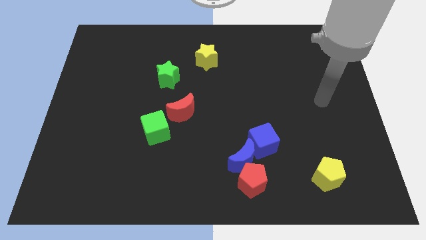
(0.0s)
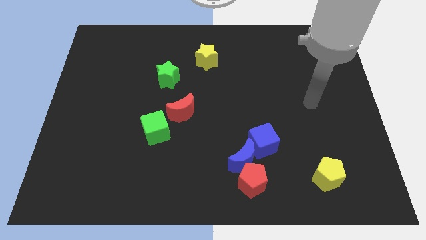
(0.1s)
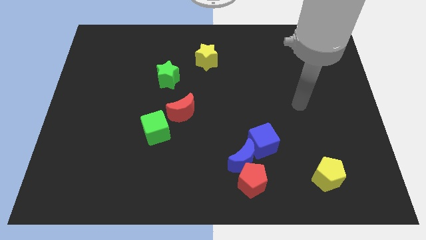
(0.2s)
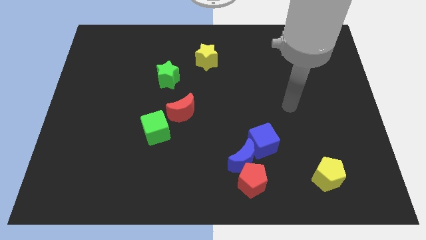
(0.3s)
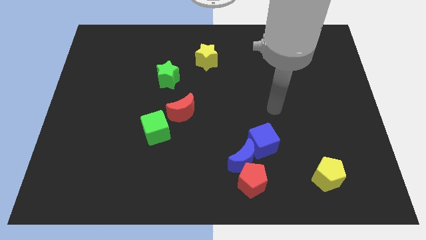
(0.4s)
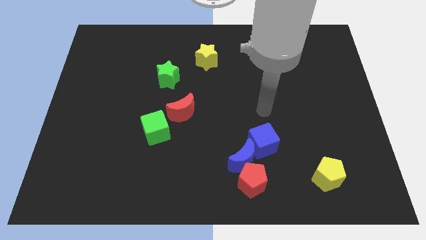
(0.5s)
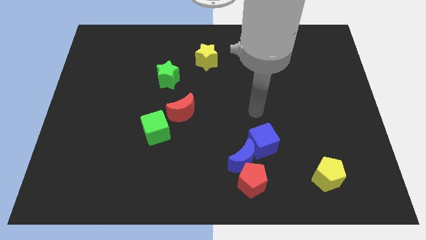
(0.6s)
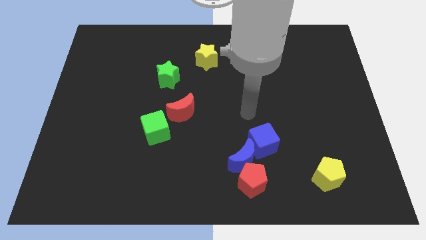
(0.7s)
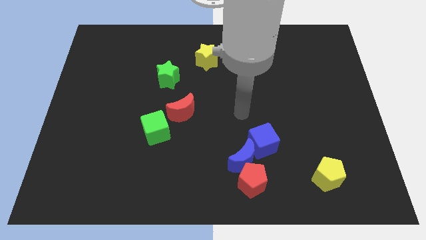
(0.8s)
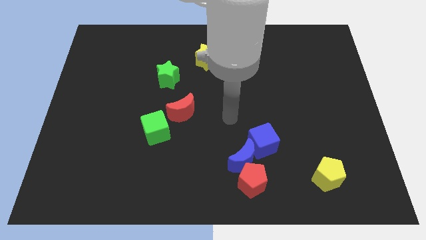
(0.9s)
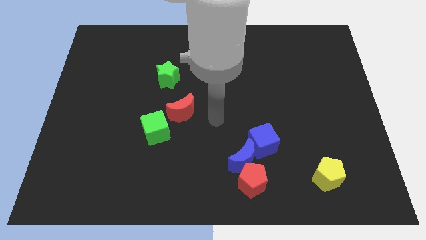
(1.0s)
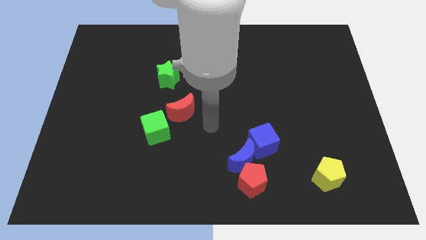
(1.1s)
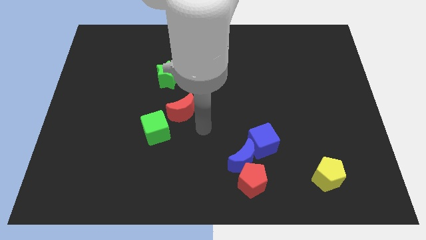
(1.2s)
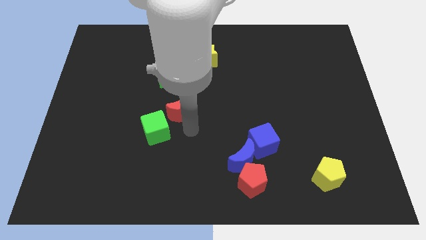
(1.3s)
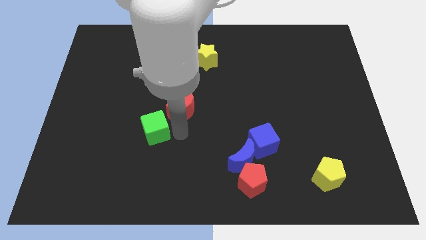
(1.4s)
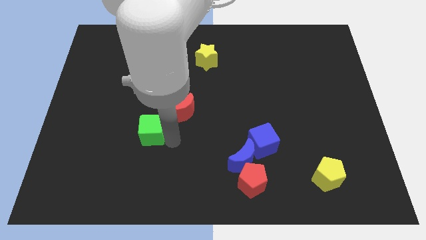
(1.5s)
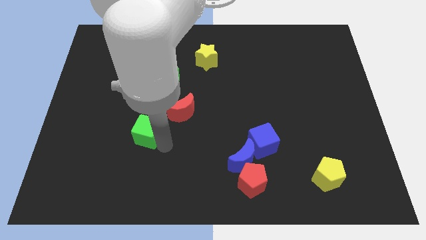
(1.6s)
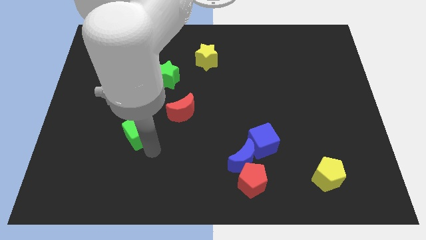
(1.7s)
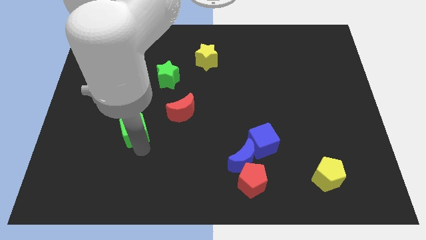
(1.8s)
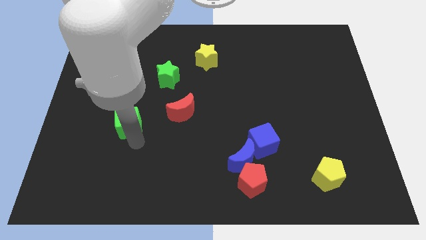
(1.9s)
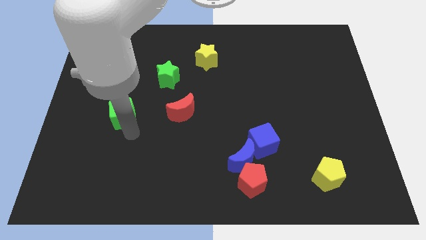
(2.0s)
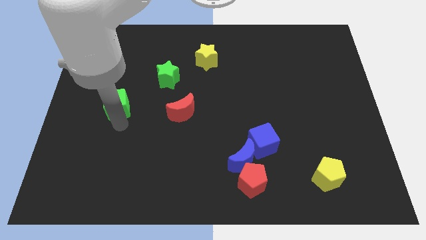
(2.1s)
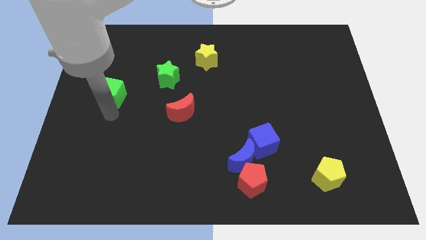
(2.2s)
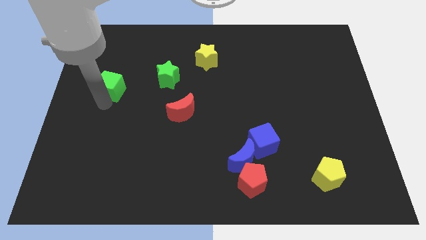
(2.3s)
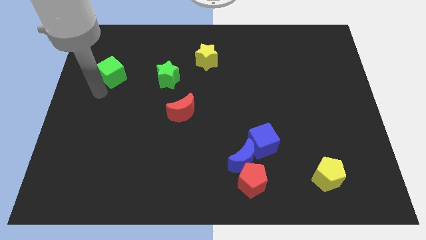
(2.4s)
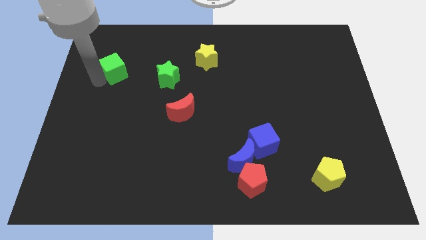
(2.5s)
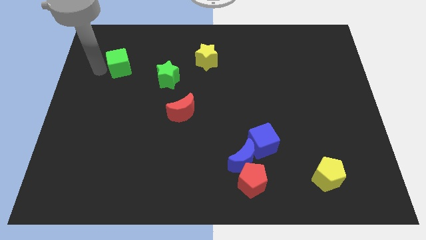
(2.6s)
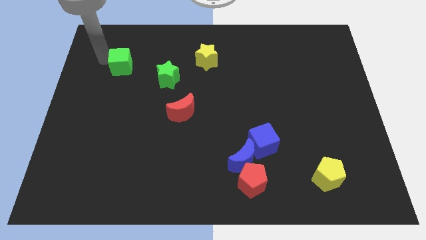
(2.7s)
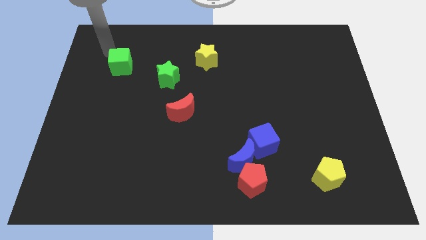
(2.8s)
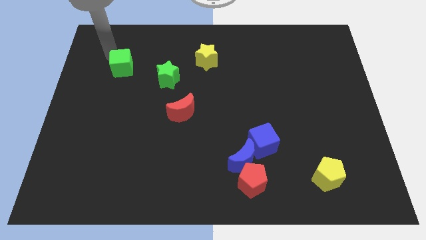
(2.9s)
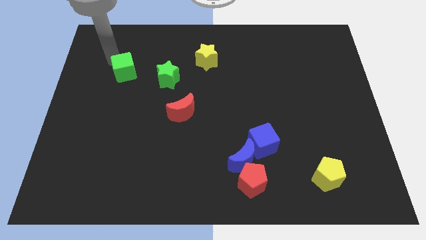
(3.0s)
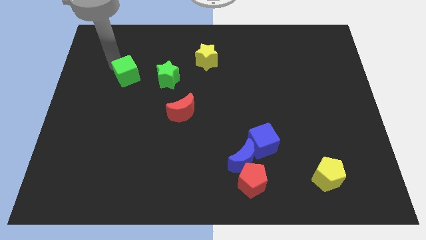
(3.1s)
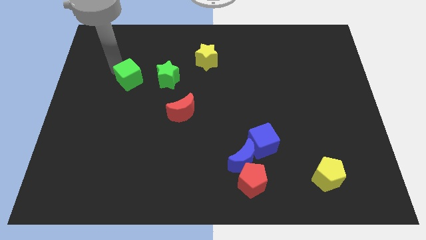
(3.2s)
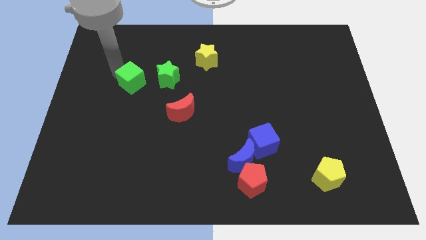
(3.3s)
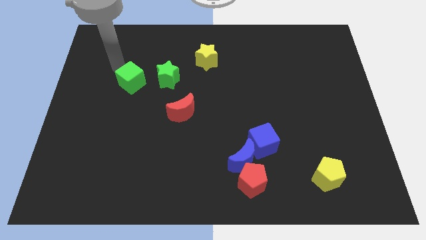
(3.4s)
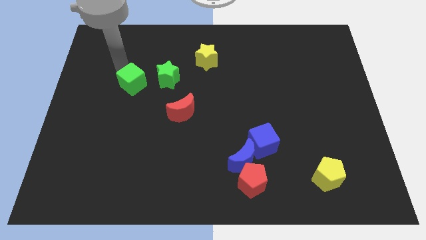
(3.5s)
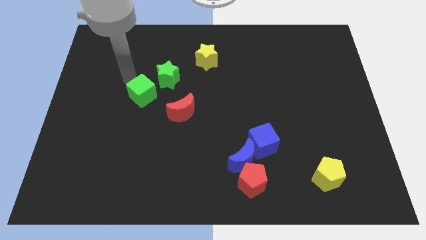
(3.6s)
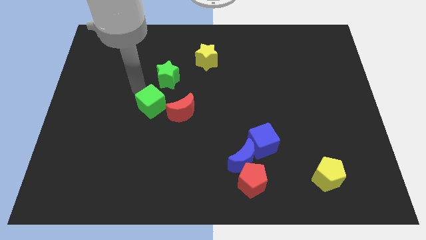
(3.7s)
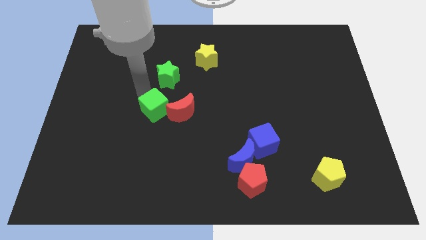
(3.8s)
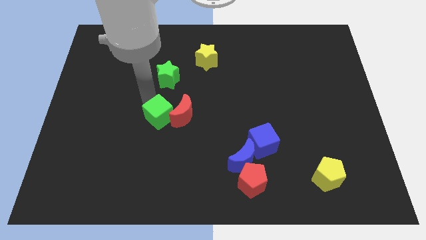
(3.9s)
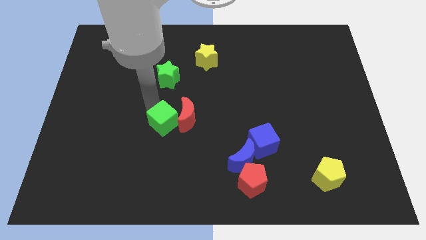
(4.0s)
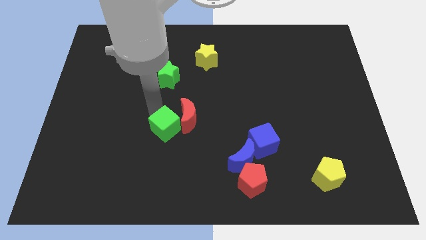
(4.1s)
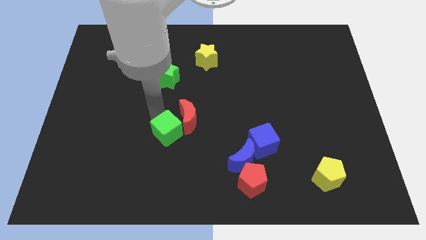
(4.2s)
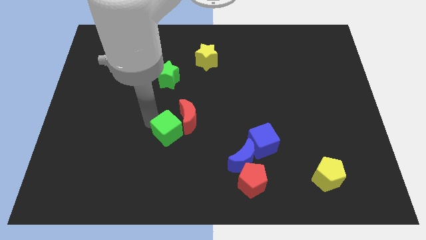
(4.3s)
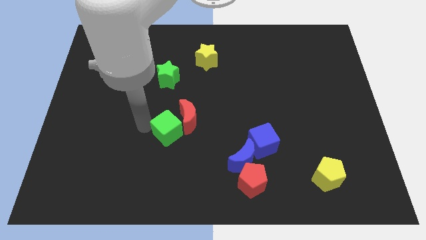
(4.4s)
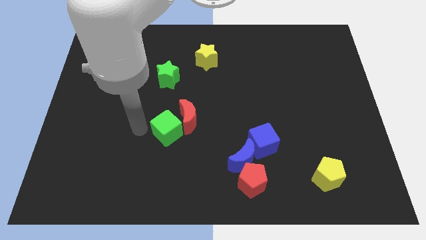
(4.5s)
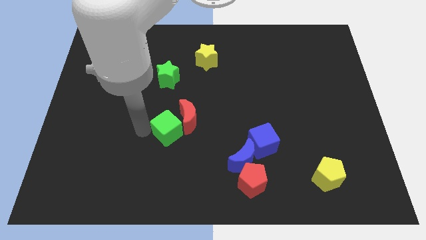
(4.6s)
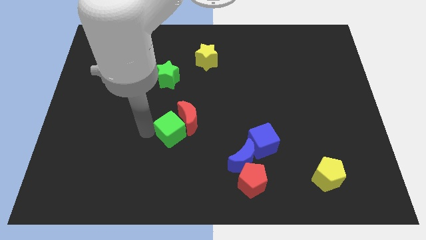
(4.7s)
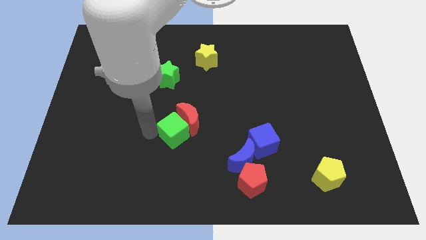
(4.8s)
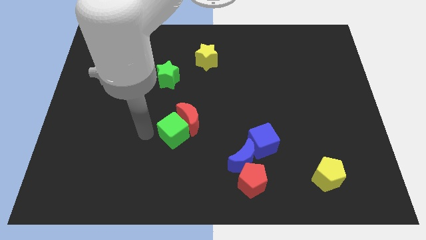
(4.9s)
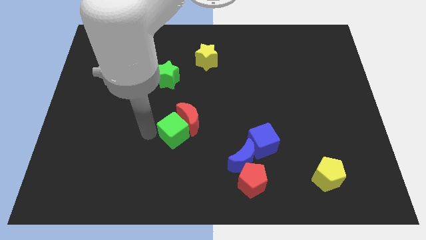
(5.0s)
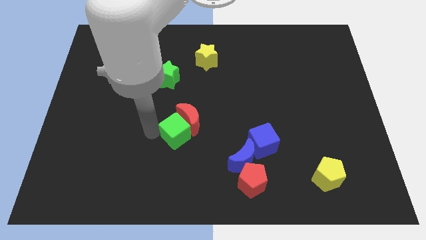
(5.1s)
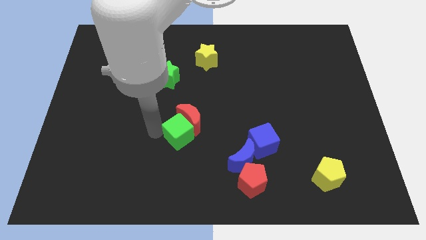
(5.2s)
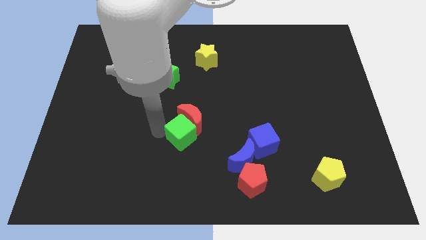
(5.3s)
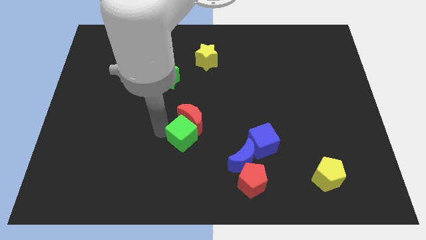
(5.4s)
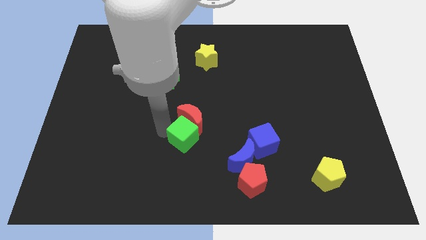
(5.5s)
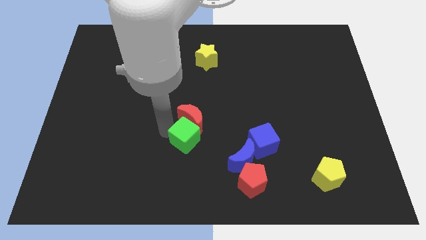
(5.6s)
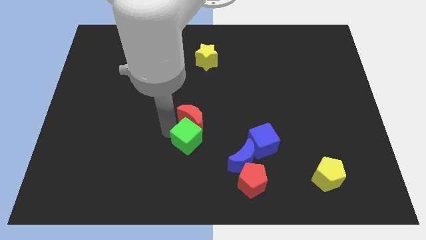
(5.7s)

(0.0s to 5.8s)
slightly slide the green cube right

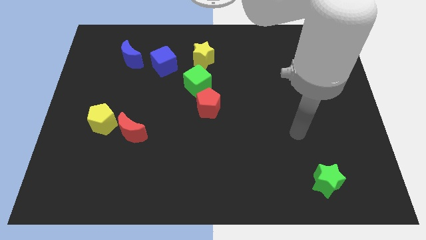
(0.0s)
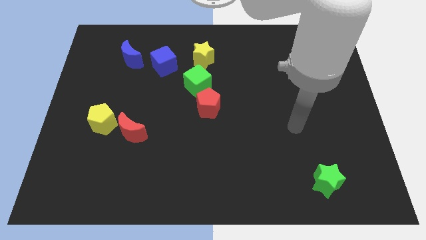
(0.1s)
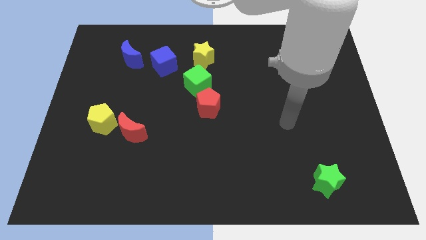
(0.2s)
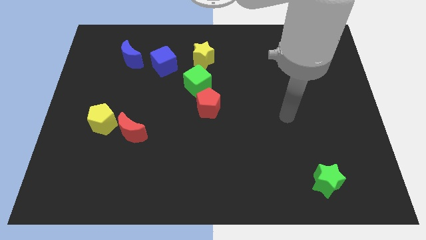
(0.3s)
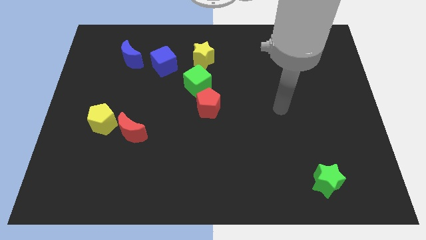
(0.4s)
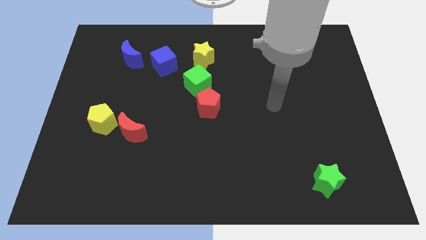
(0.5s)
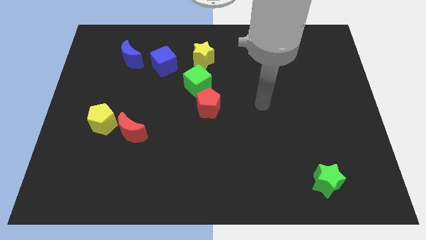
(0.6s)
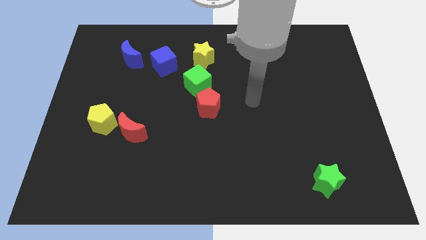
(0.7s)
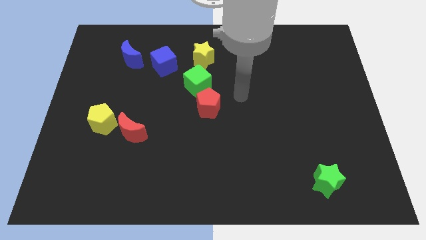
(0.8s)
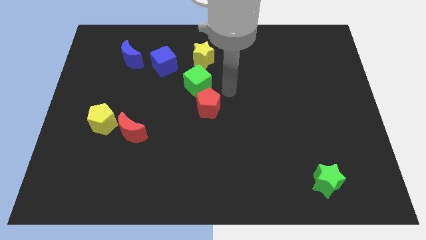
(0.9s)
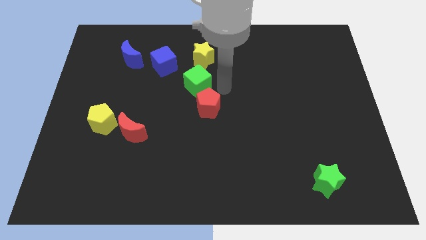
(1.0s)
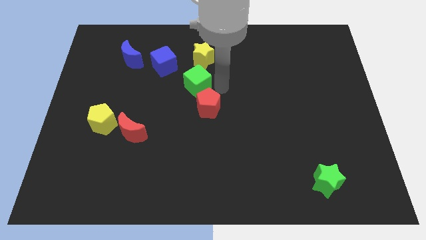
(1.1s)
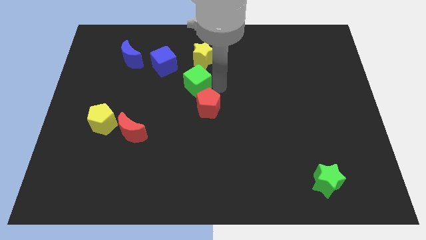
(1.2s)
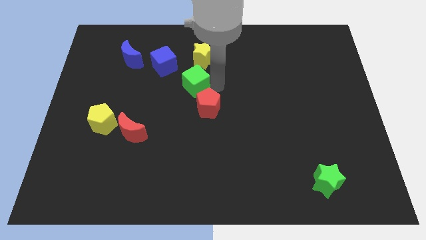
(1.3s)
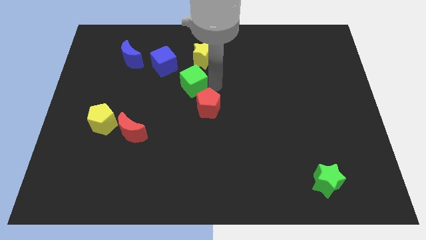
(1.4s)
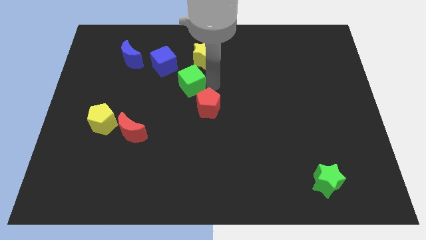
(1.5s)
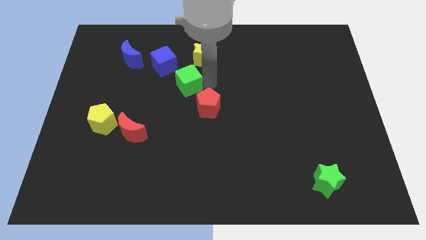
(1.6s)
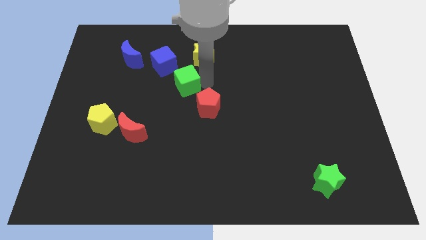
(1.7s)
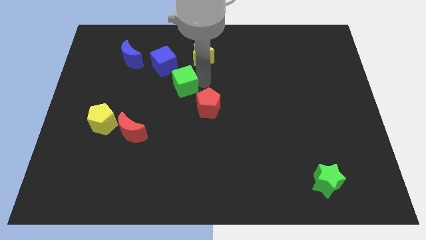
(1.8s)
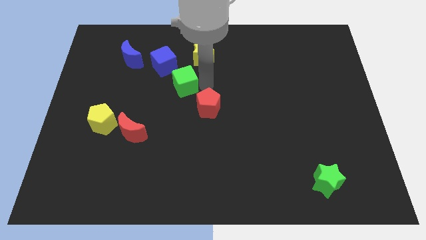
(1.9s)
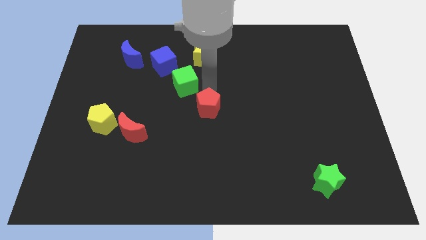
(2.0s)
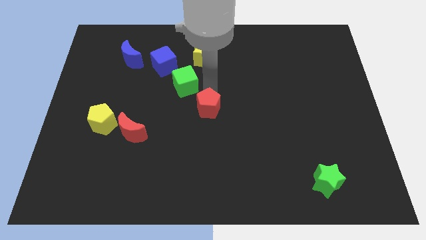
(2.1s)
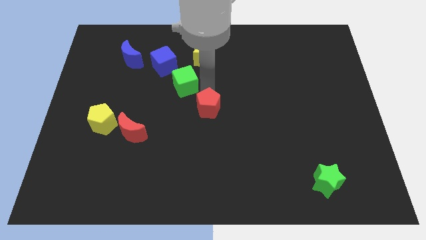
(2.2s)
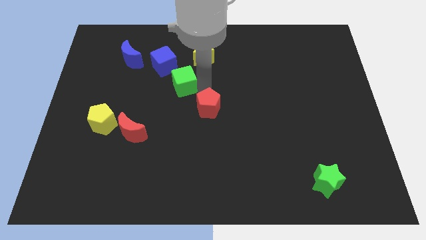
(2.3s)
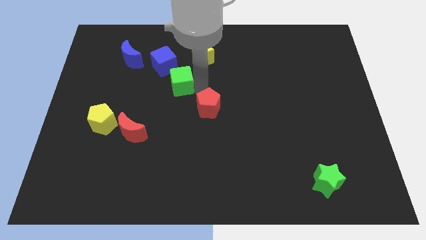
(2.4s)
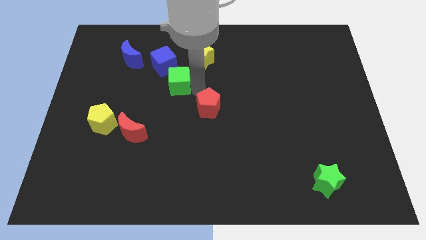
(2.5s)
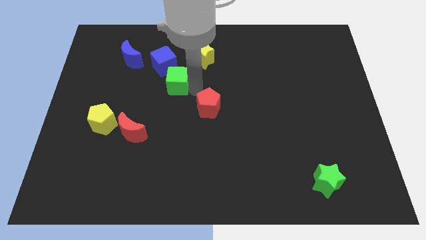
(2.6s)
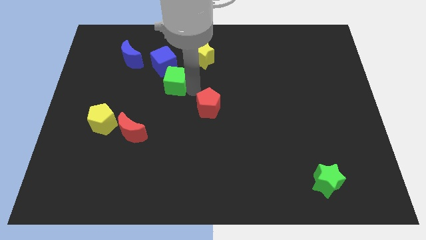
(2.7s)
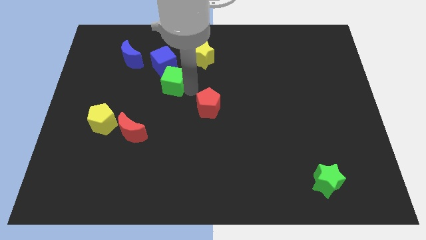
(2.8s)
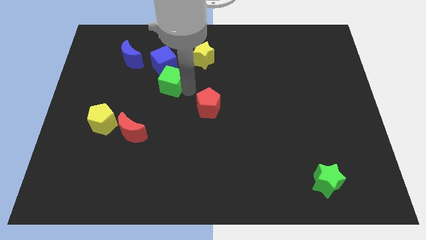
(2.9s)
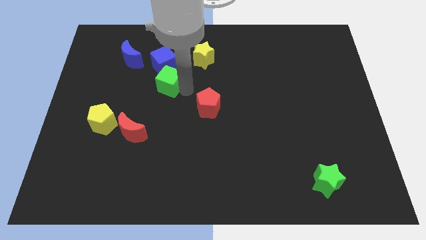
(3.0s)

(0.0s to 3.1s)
slide the green cube a bit left
